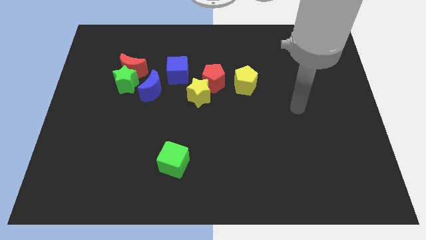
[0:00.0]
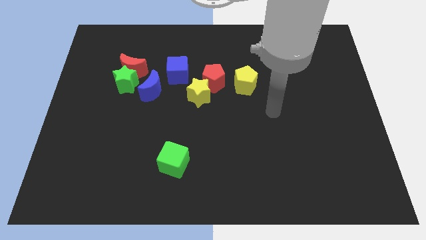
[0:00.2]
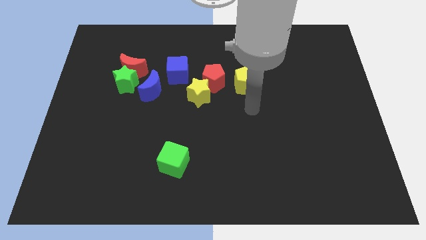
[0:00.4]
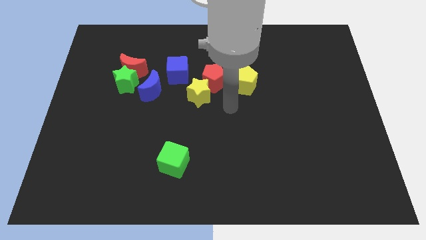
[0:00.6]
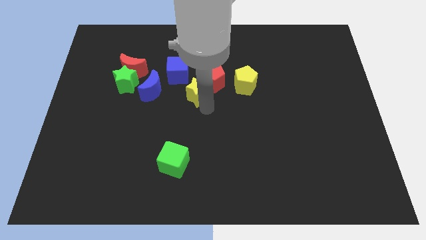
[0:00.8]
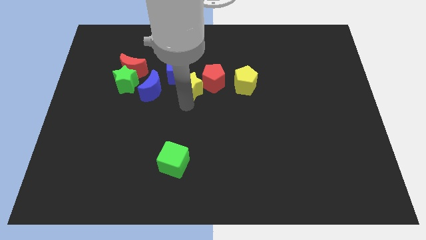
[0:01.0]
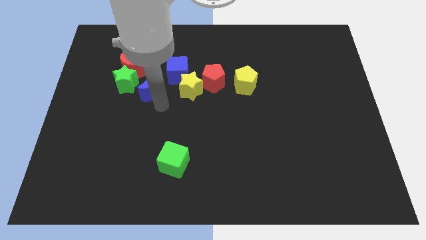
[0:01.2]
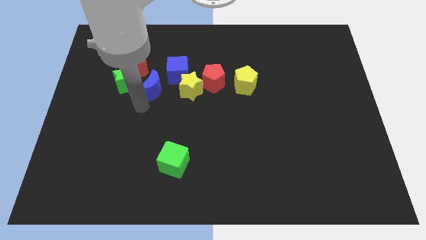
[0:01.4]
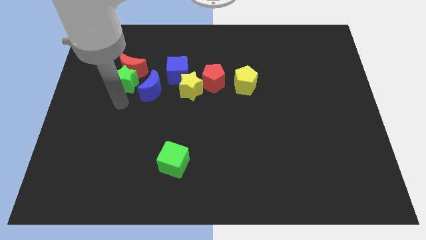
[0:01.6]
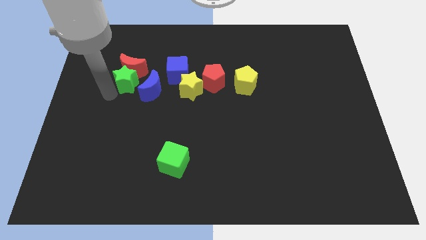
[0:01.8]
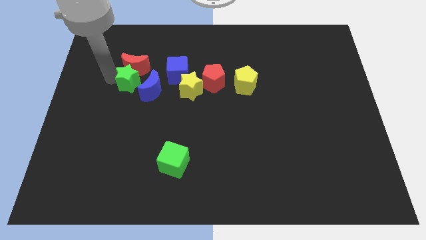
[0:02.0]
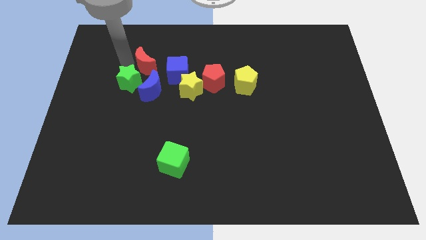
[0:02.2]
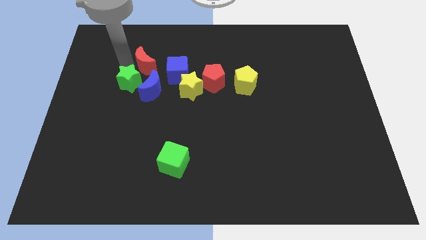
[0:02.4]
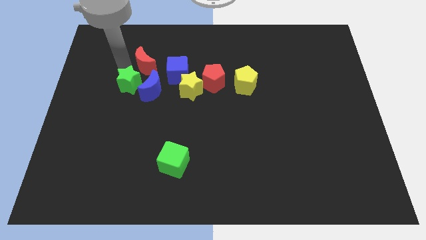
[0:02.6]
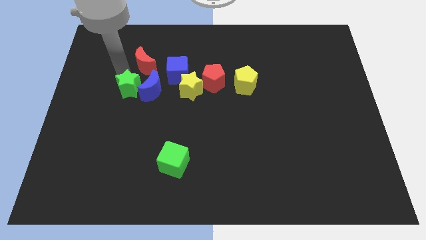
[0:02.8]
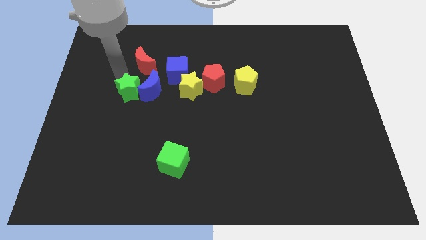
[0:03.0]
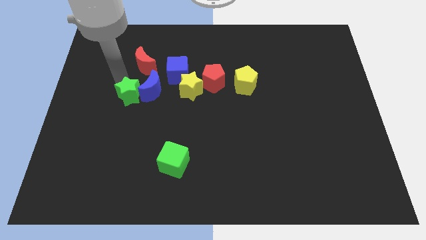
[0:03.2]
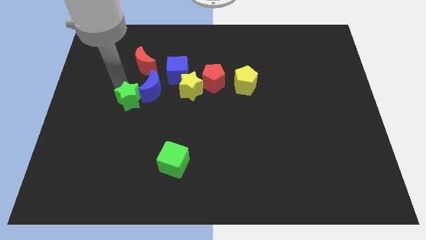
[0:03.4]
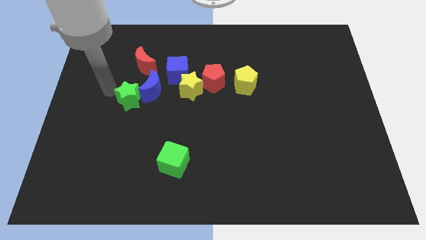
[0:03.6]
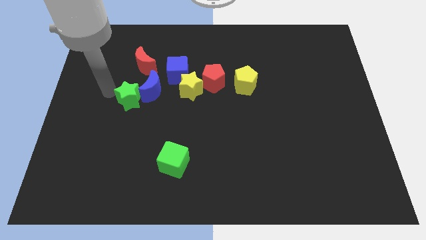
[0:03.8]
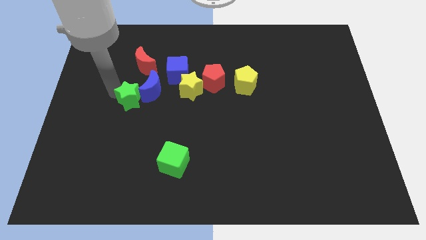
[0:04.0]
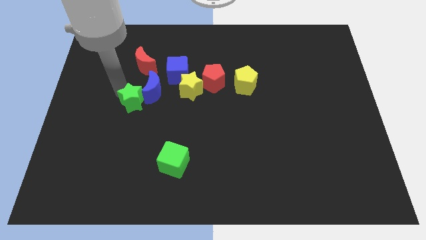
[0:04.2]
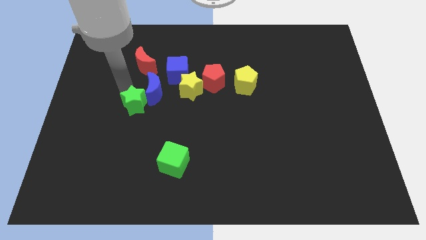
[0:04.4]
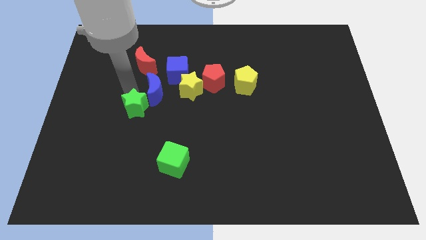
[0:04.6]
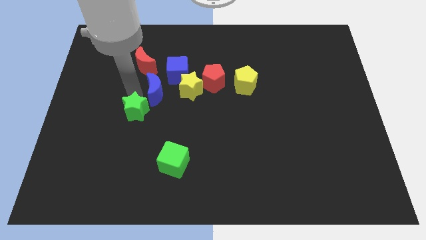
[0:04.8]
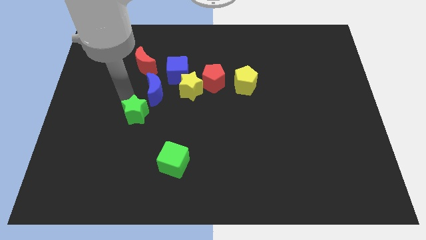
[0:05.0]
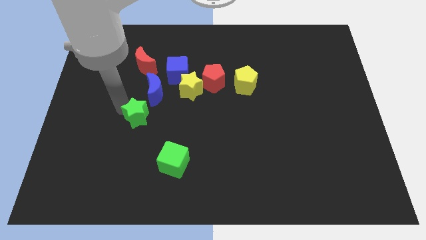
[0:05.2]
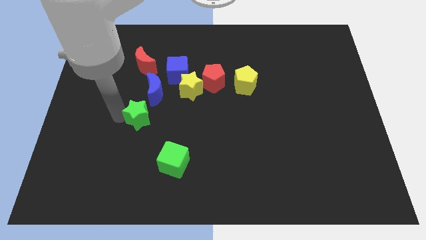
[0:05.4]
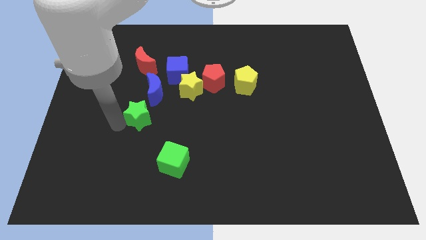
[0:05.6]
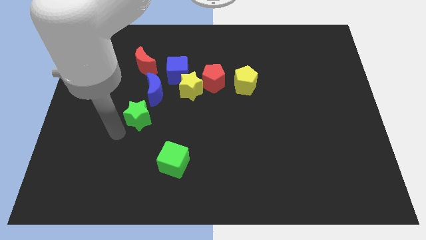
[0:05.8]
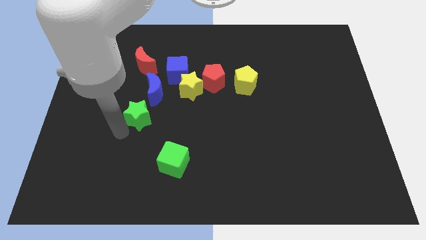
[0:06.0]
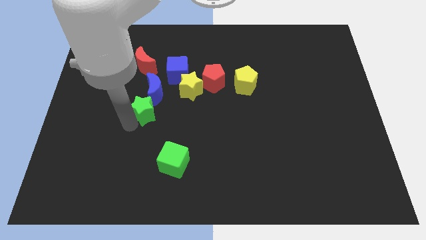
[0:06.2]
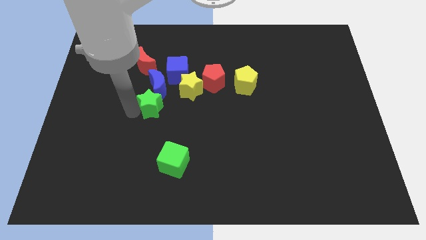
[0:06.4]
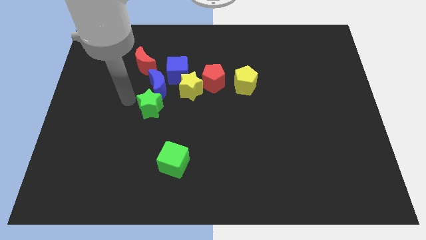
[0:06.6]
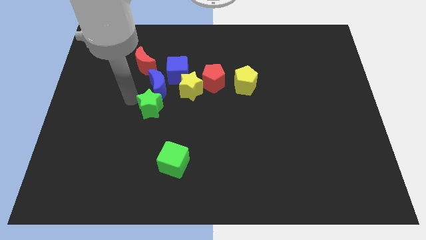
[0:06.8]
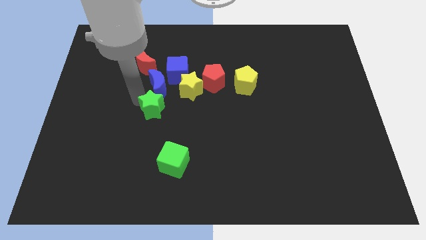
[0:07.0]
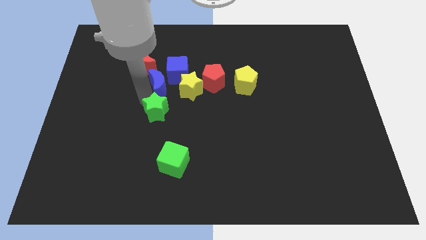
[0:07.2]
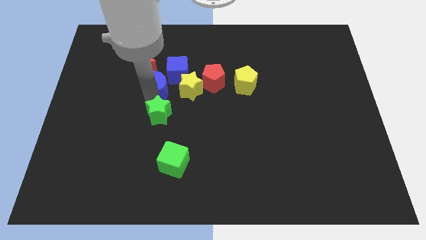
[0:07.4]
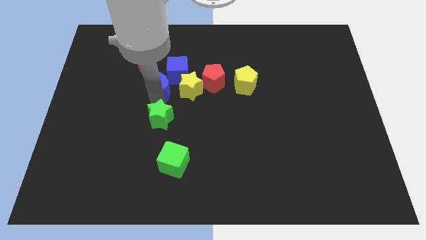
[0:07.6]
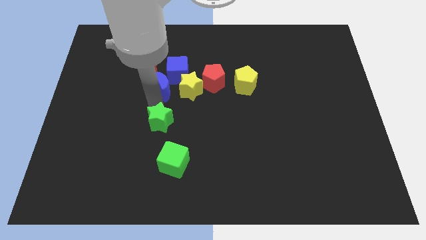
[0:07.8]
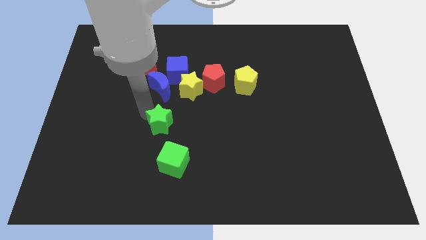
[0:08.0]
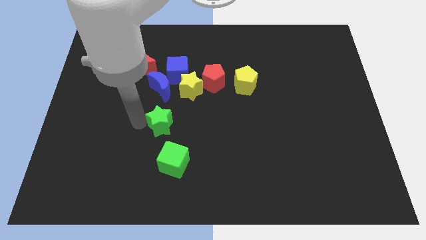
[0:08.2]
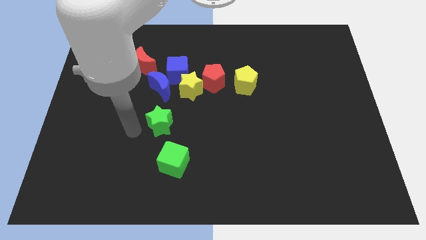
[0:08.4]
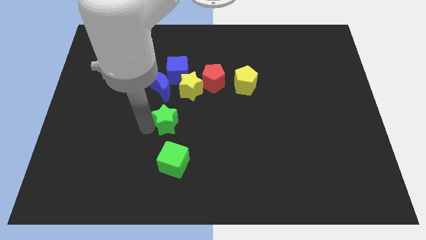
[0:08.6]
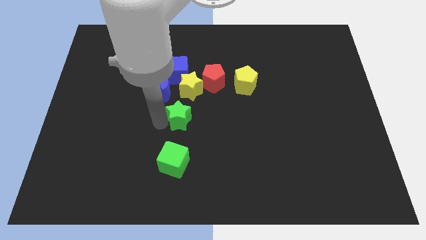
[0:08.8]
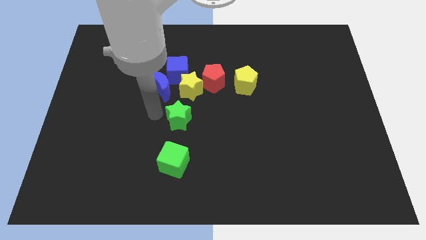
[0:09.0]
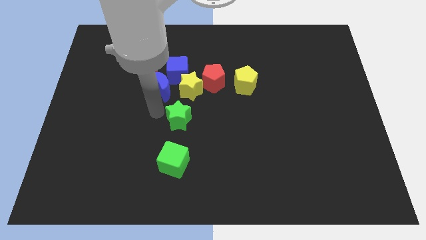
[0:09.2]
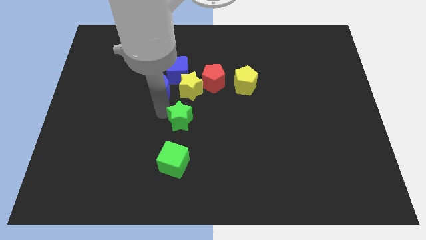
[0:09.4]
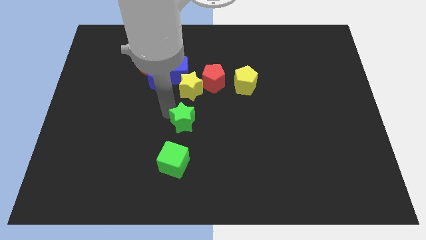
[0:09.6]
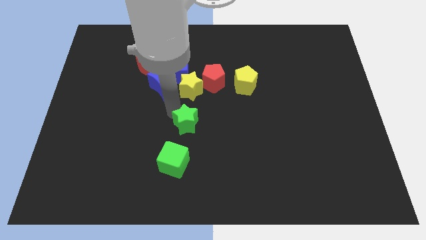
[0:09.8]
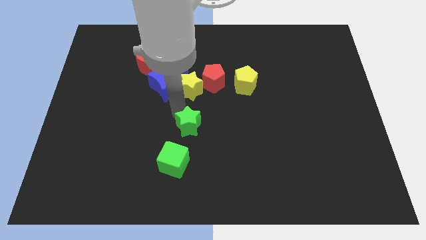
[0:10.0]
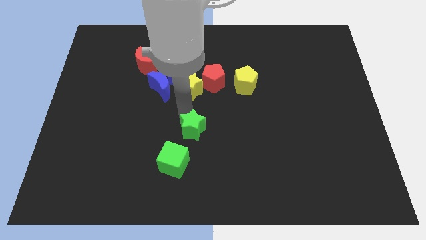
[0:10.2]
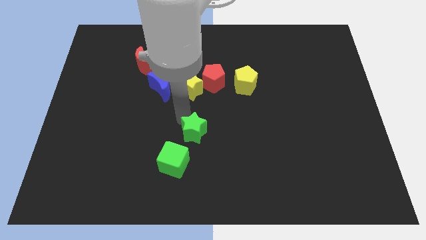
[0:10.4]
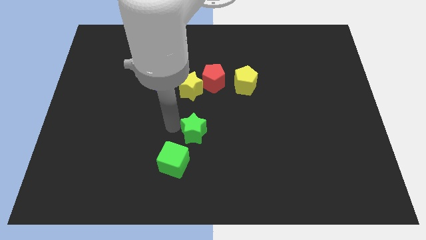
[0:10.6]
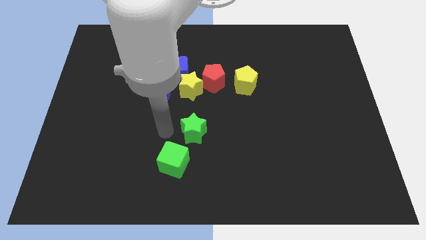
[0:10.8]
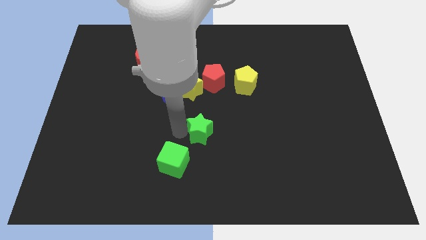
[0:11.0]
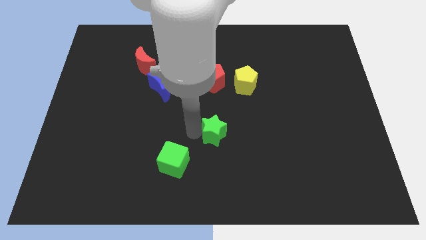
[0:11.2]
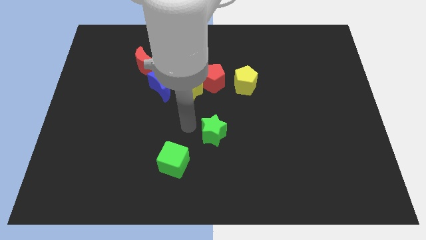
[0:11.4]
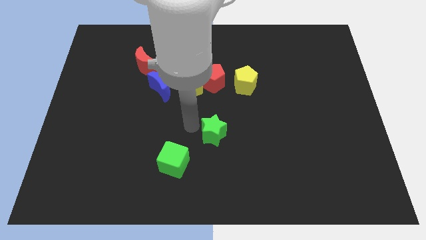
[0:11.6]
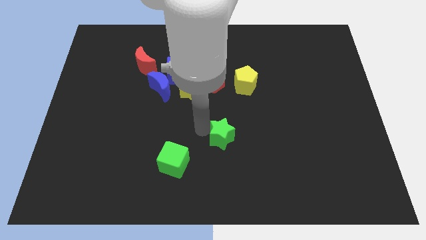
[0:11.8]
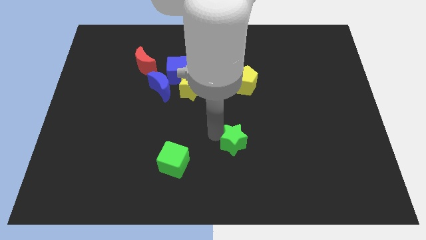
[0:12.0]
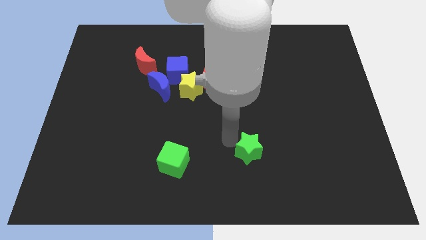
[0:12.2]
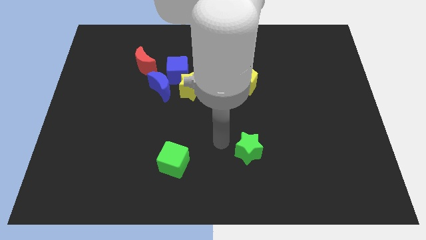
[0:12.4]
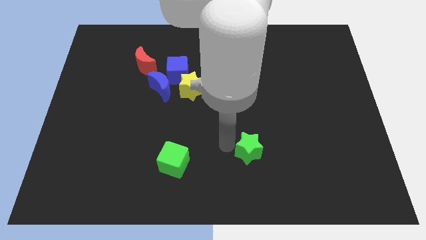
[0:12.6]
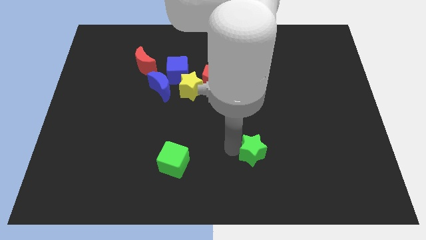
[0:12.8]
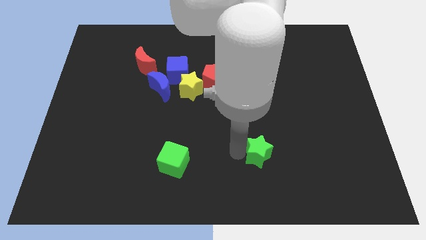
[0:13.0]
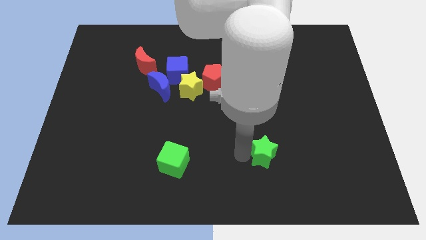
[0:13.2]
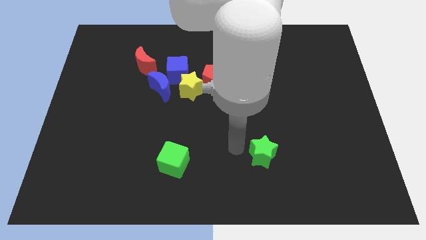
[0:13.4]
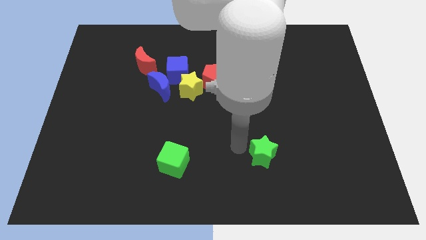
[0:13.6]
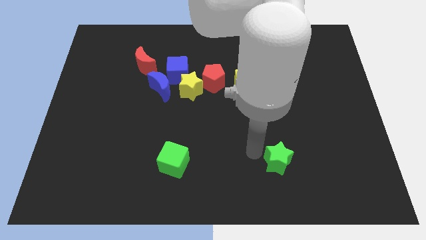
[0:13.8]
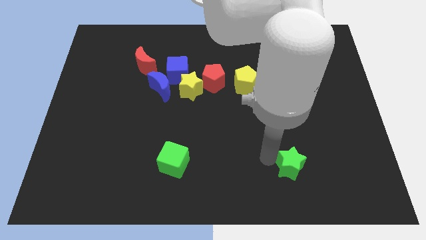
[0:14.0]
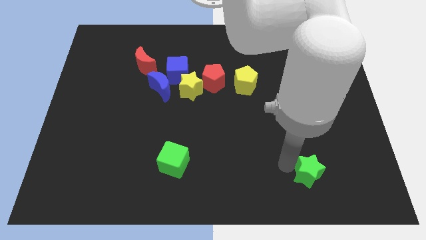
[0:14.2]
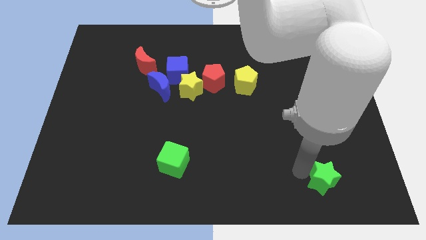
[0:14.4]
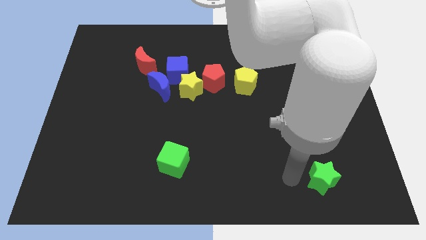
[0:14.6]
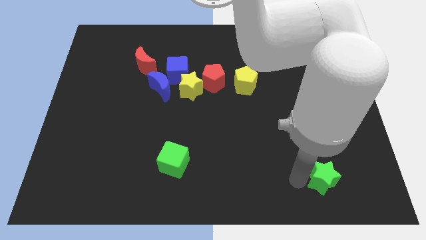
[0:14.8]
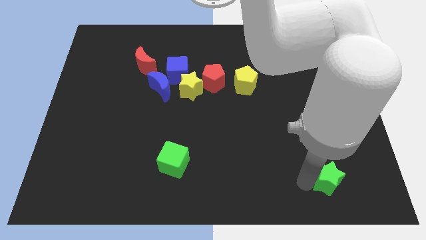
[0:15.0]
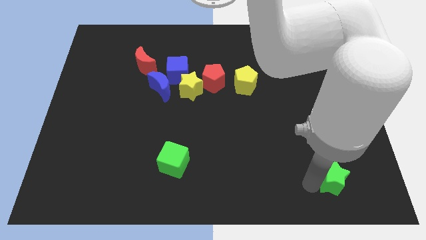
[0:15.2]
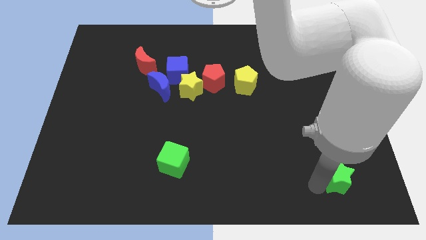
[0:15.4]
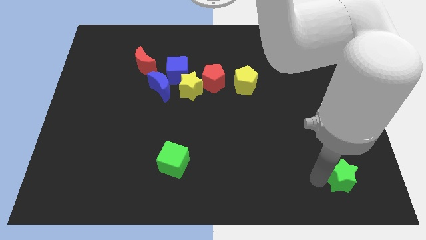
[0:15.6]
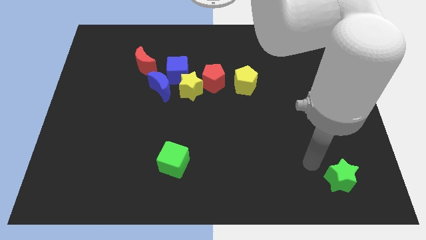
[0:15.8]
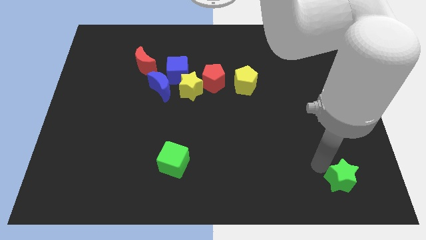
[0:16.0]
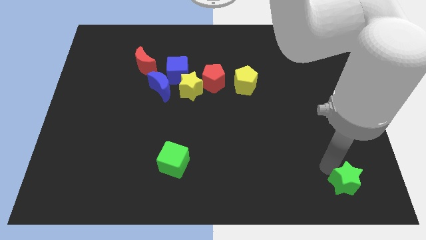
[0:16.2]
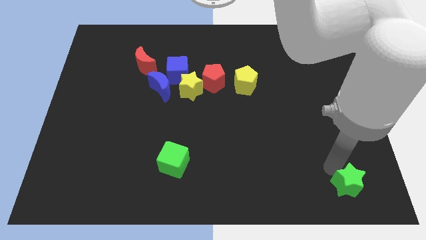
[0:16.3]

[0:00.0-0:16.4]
push the green star to the lower right corner
